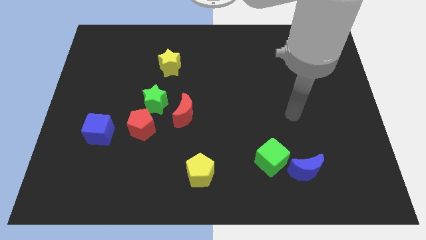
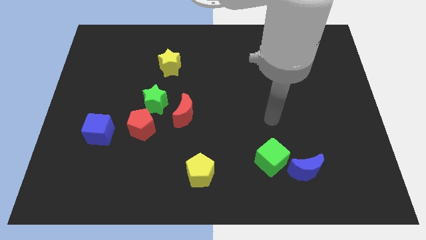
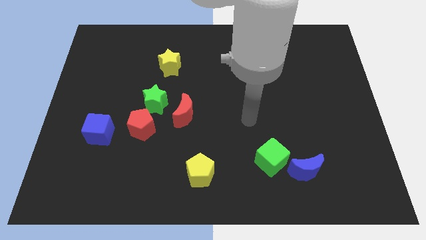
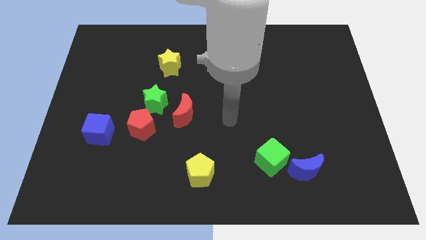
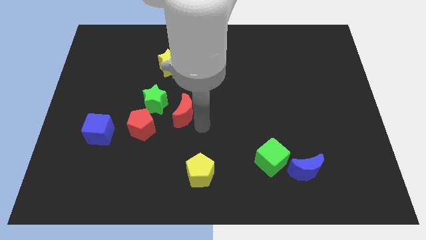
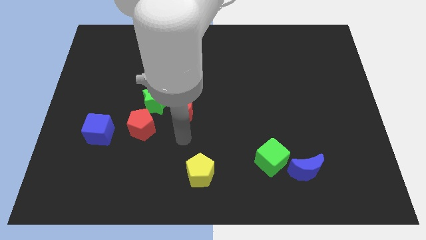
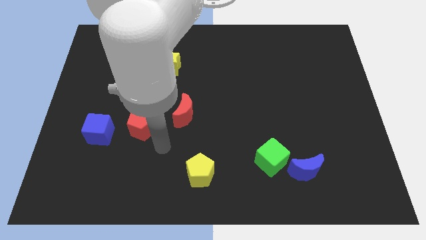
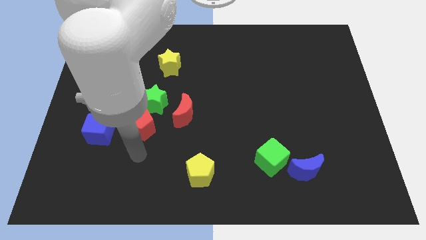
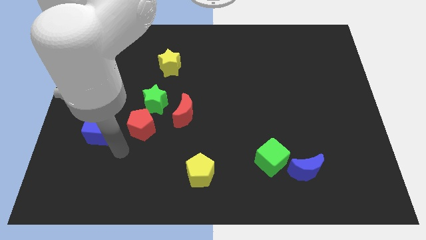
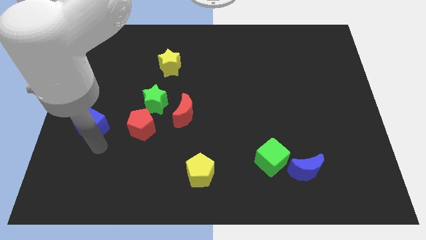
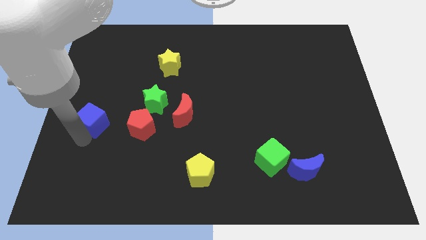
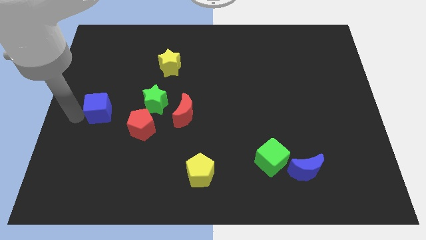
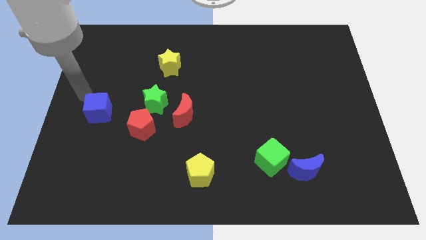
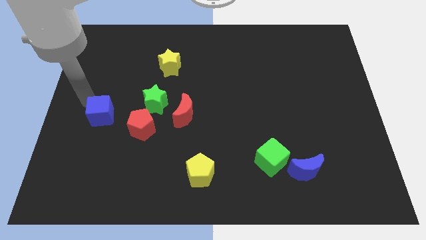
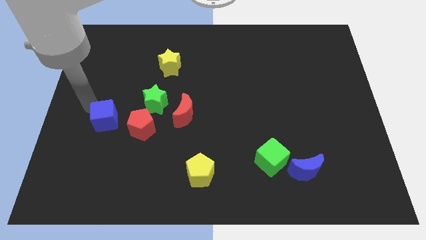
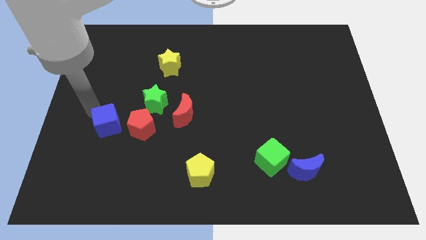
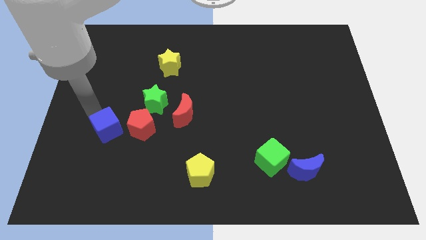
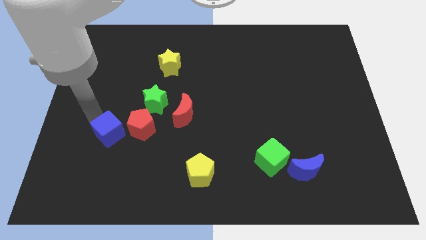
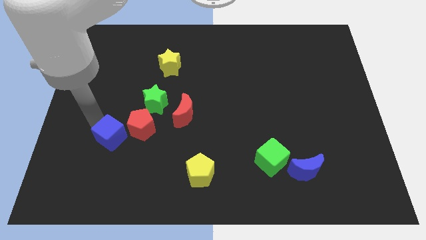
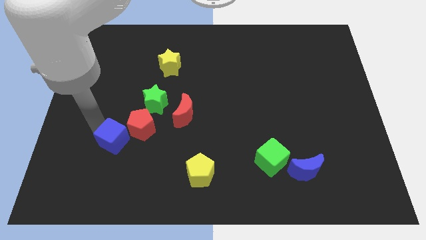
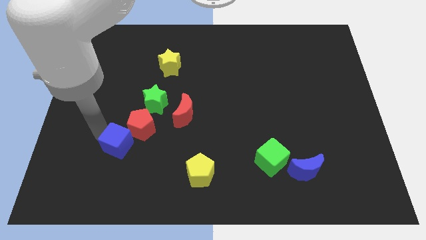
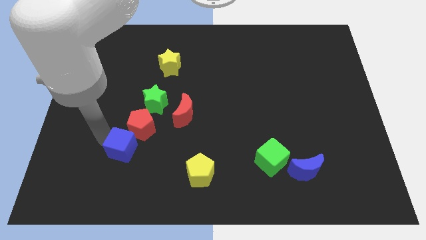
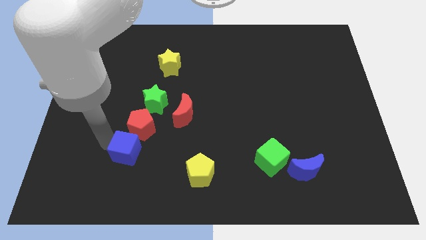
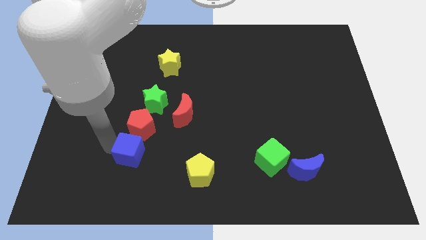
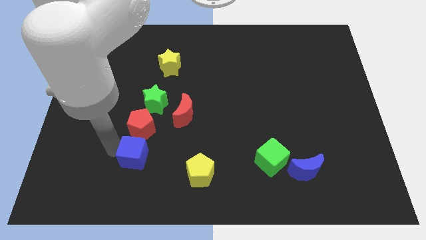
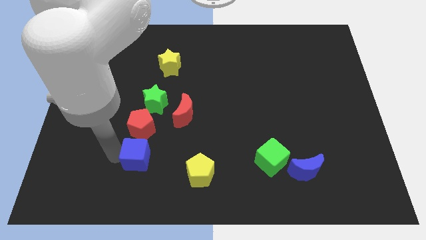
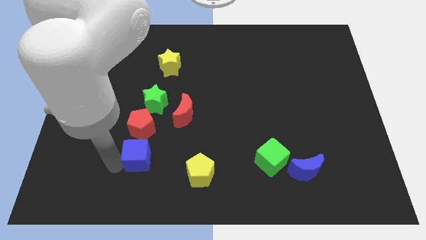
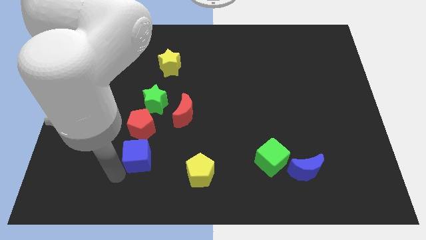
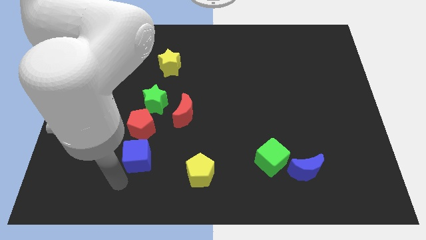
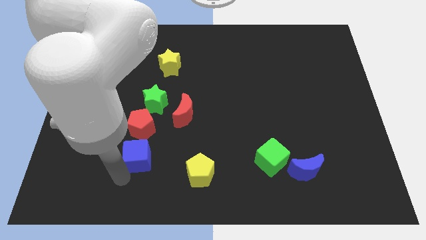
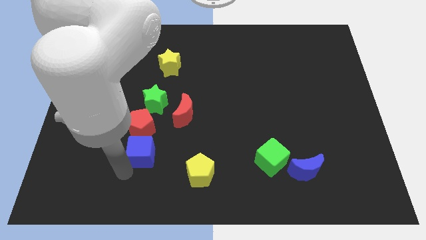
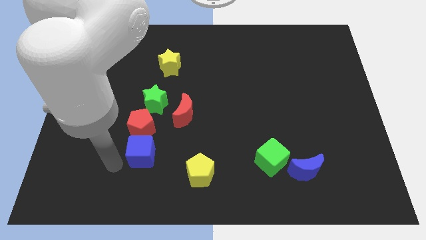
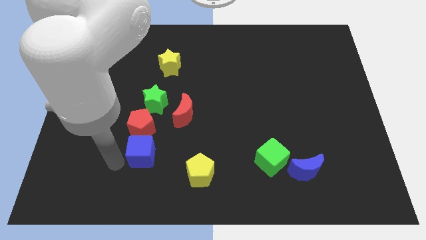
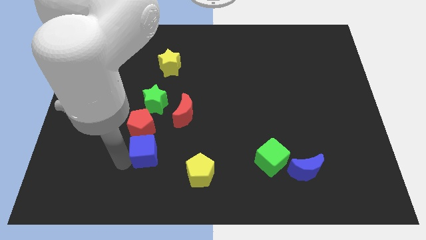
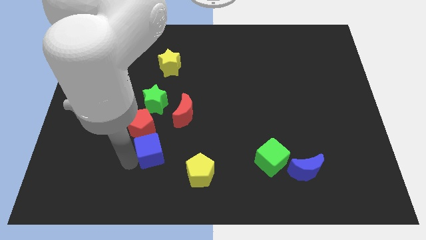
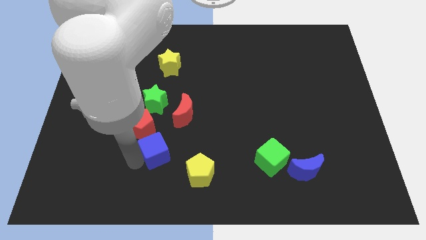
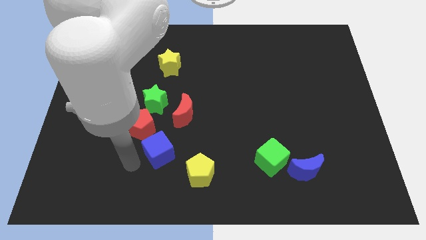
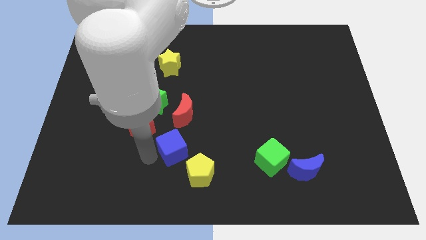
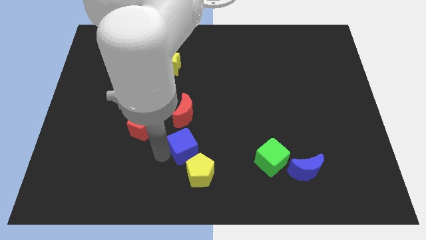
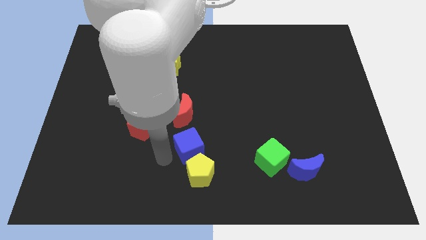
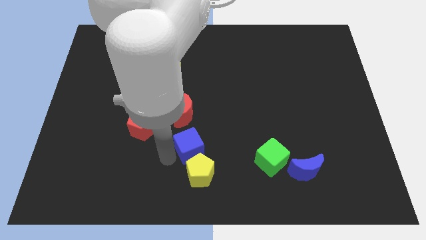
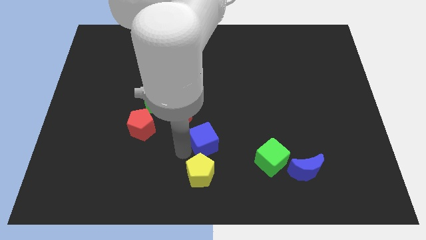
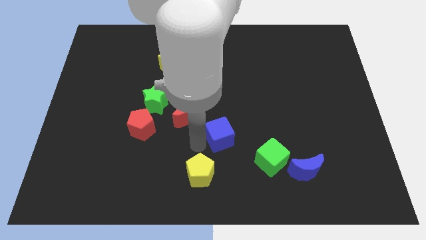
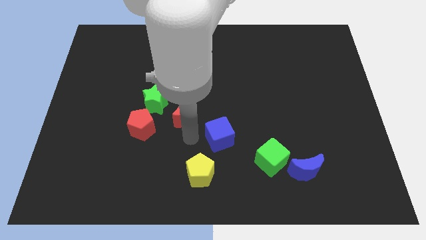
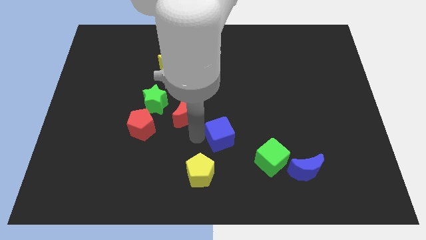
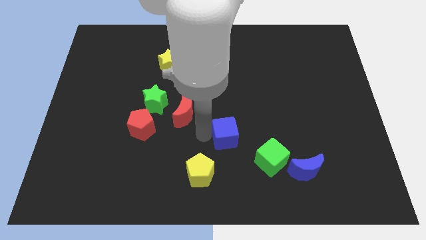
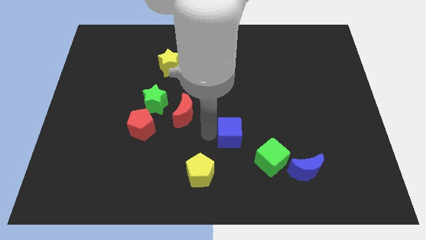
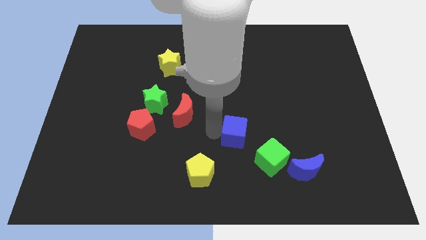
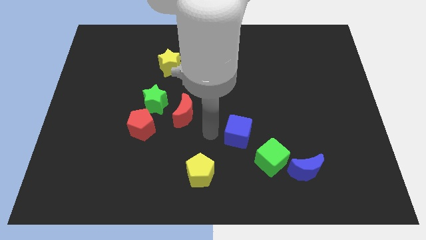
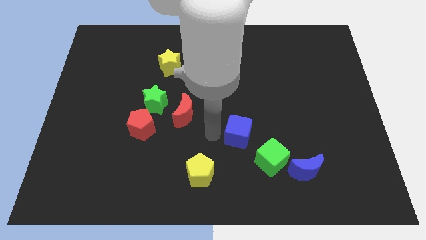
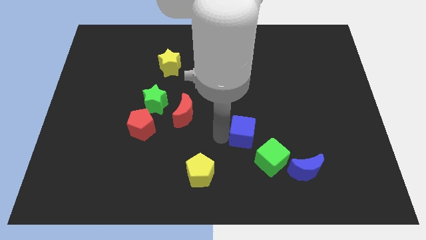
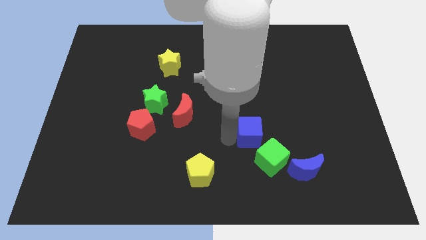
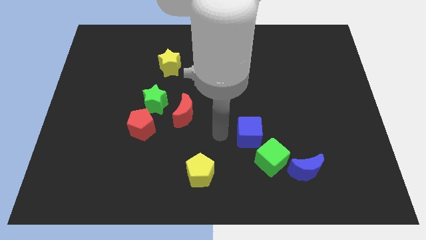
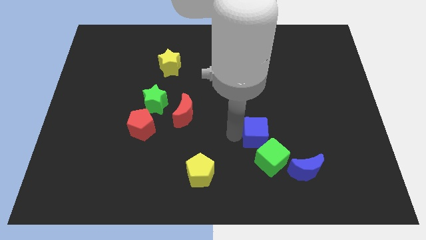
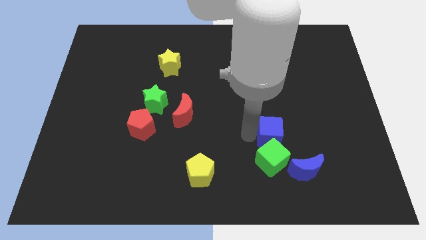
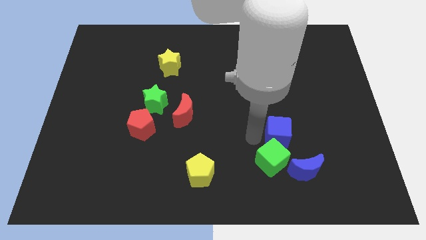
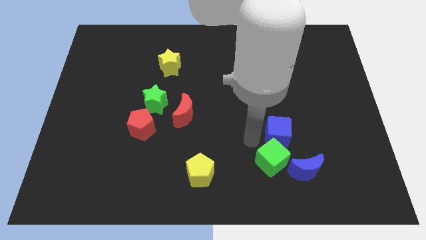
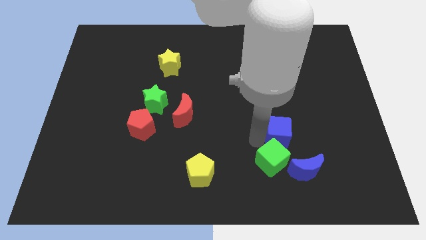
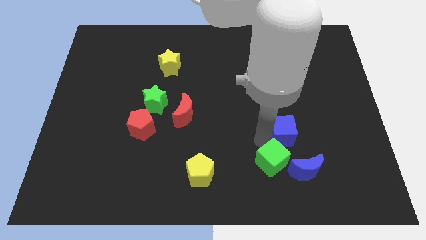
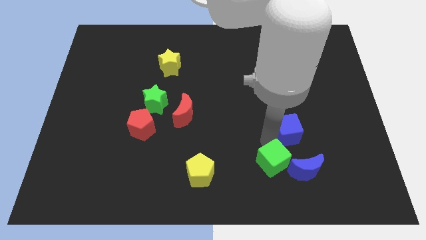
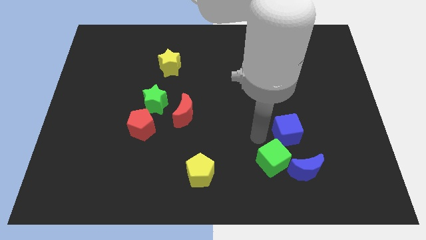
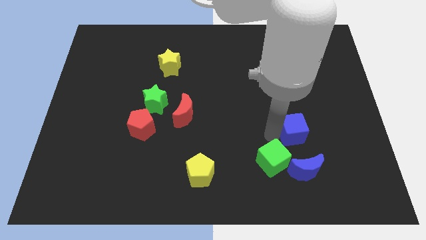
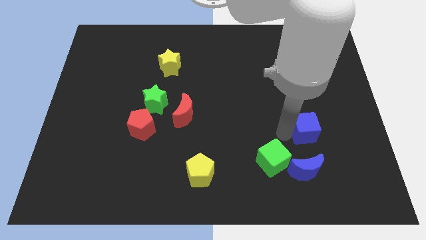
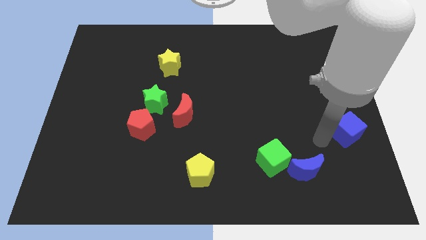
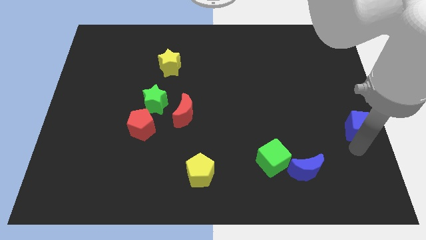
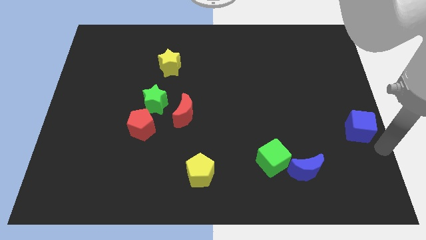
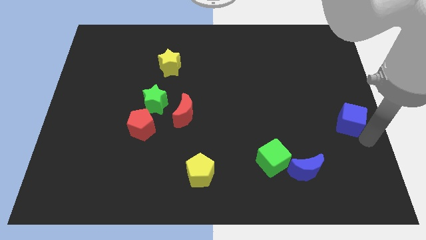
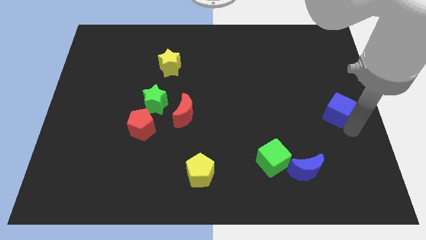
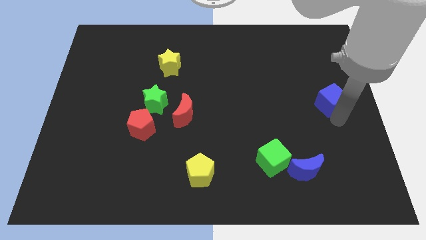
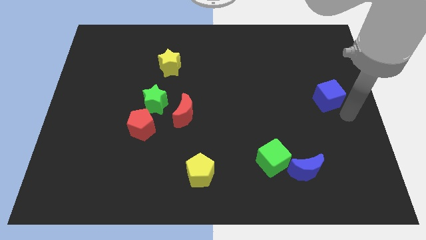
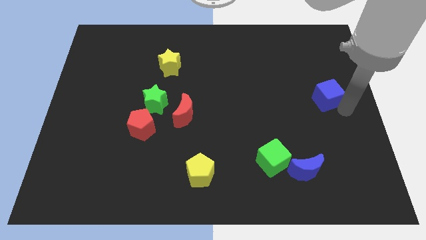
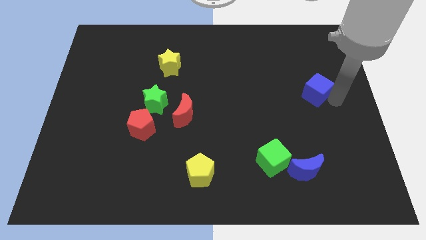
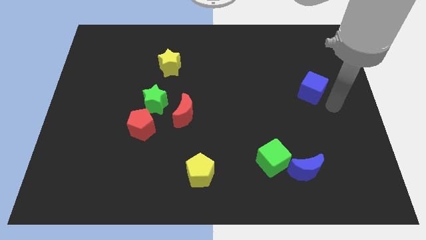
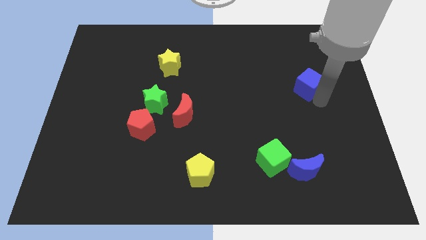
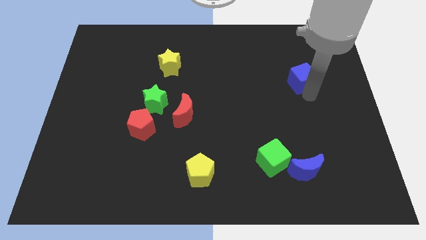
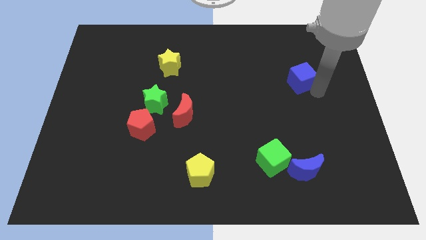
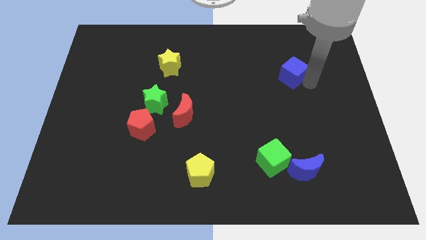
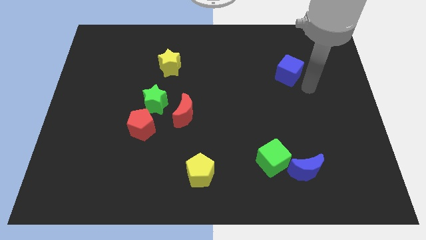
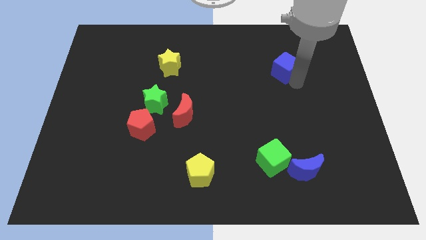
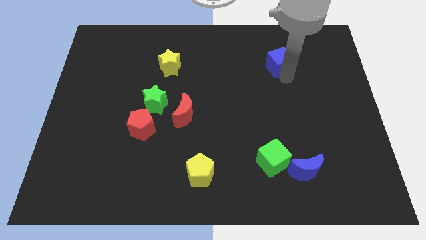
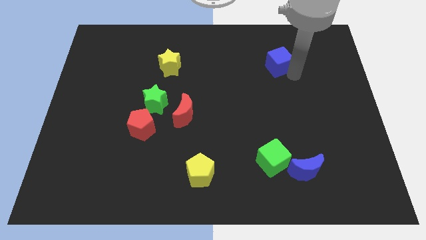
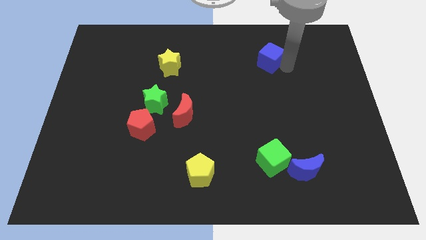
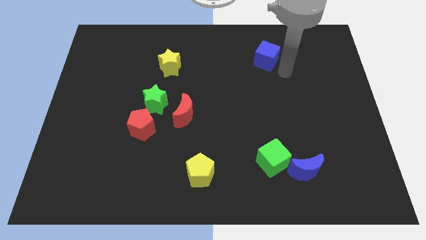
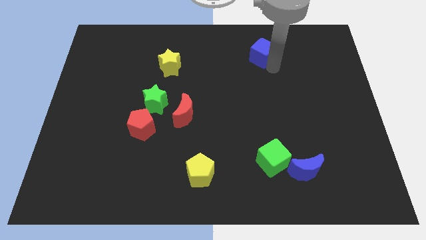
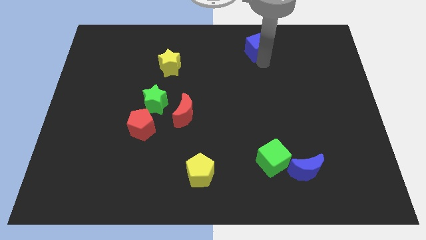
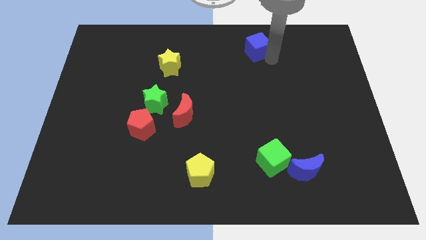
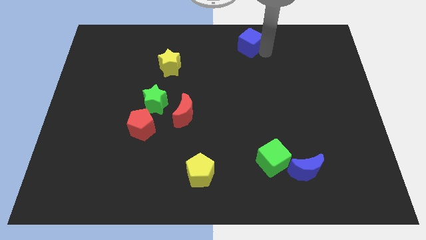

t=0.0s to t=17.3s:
slide the blue cube to the top
